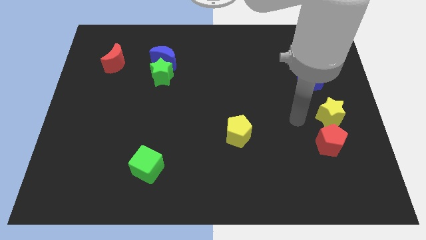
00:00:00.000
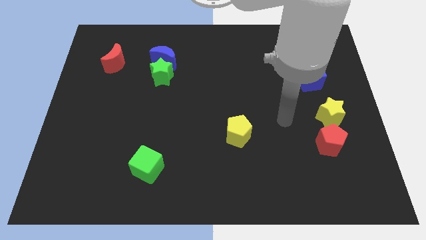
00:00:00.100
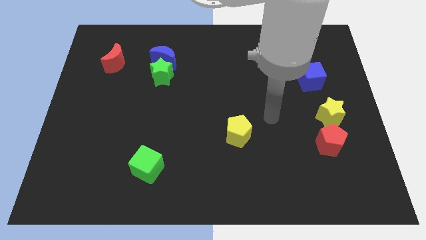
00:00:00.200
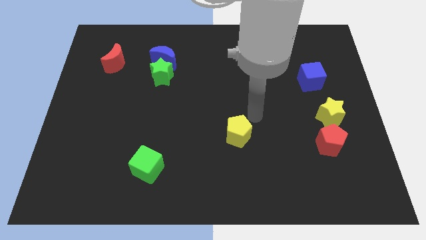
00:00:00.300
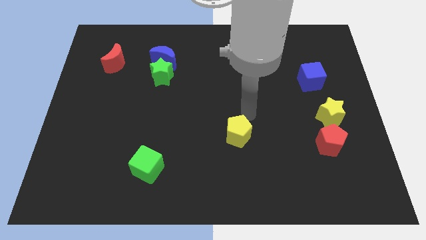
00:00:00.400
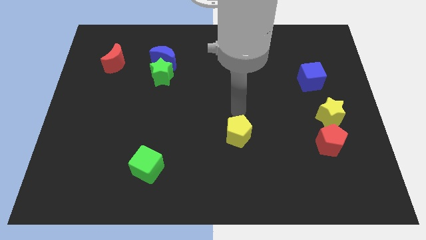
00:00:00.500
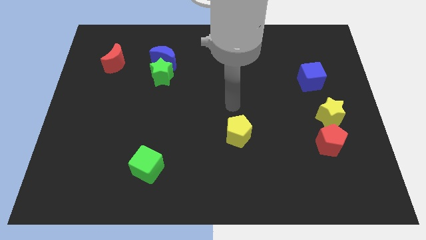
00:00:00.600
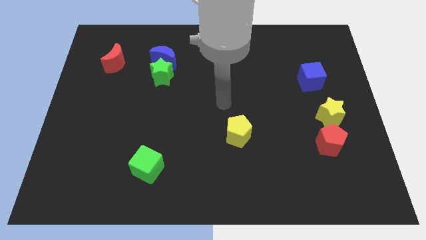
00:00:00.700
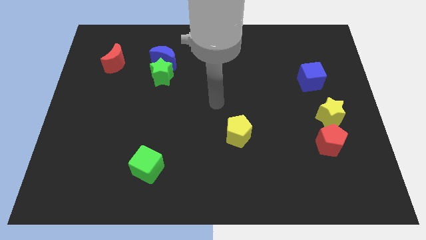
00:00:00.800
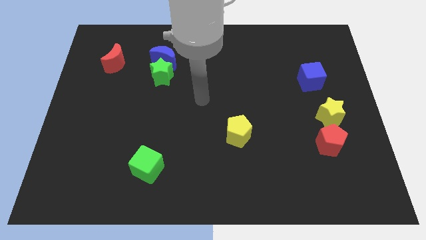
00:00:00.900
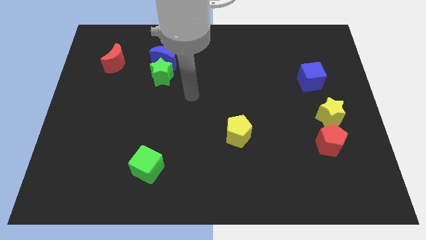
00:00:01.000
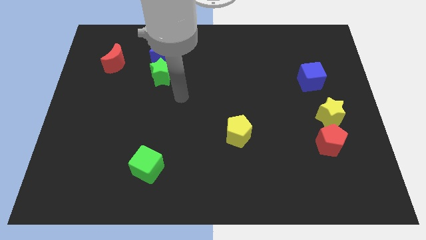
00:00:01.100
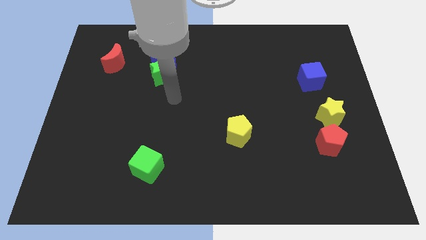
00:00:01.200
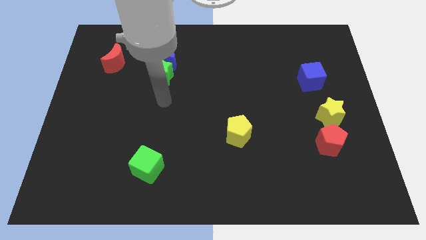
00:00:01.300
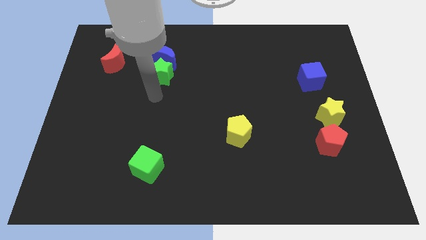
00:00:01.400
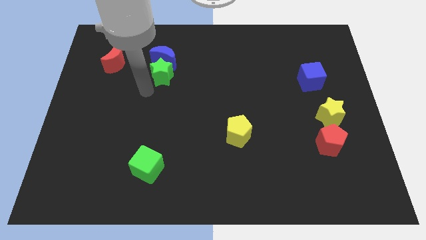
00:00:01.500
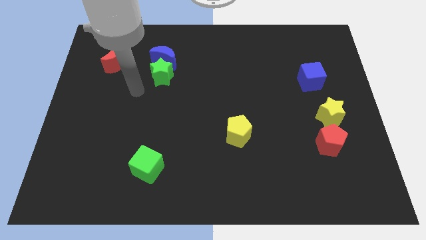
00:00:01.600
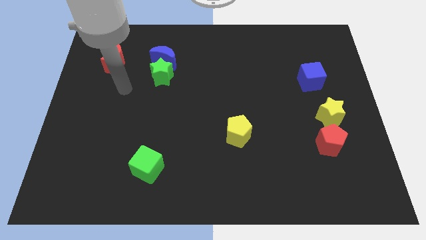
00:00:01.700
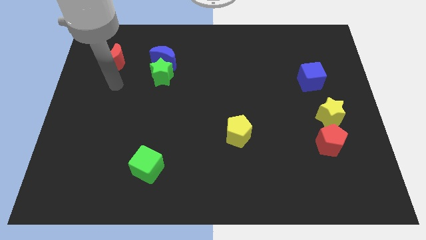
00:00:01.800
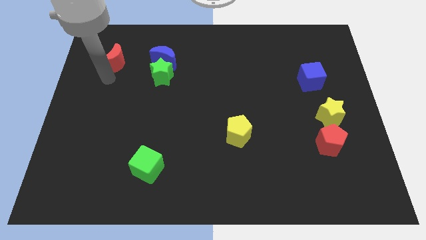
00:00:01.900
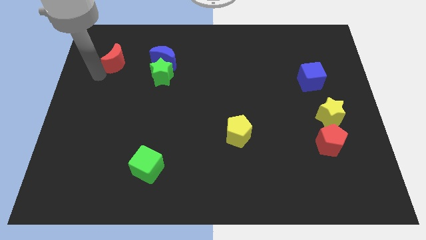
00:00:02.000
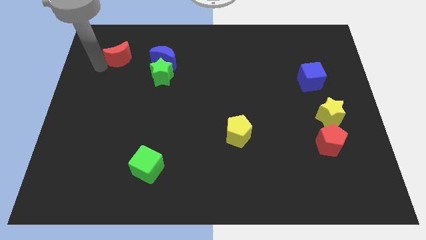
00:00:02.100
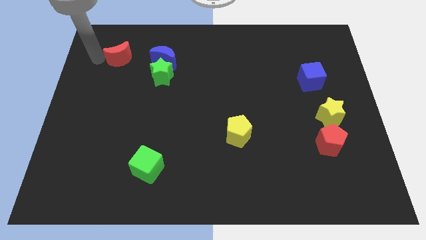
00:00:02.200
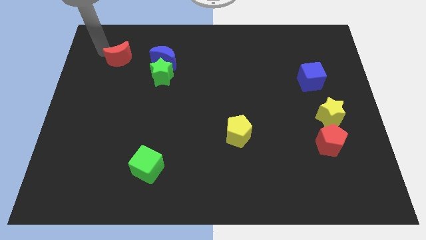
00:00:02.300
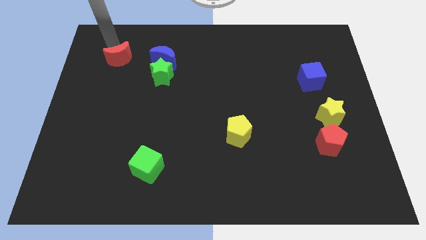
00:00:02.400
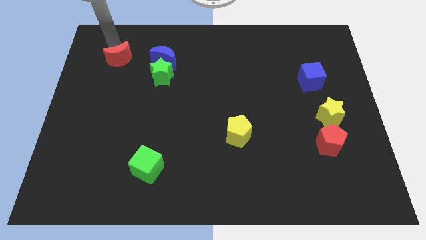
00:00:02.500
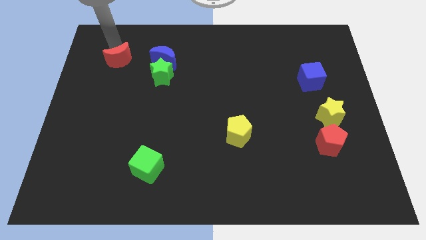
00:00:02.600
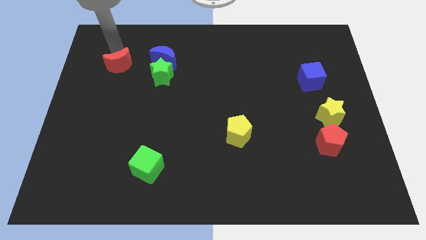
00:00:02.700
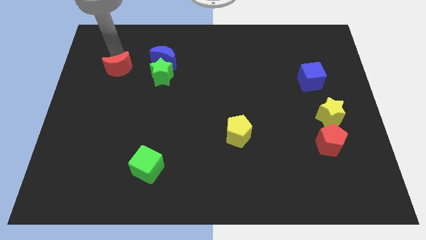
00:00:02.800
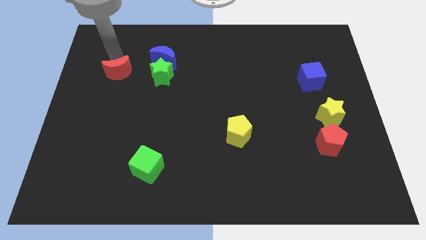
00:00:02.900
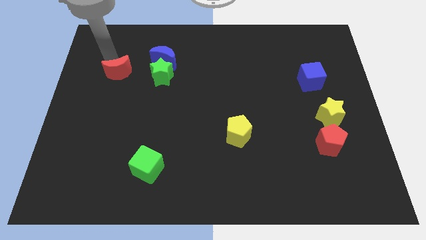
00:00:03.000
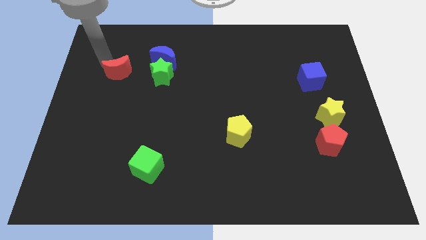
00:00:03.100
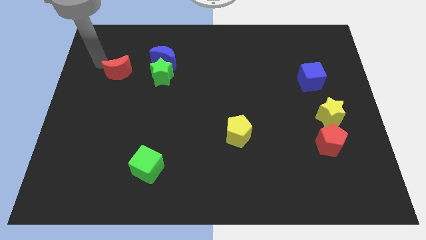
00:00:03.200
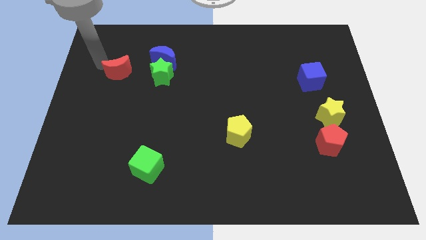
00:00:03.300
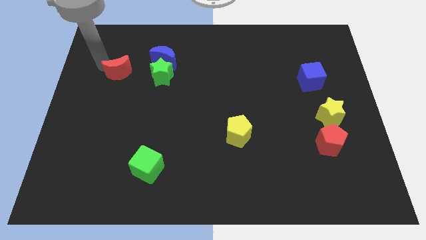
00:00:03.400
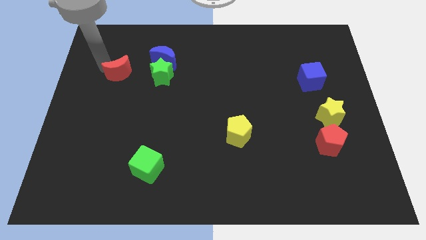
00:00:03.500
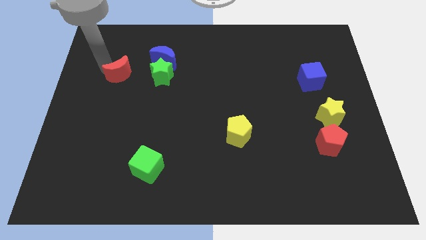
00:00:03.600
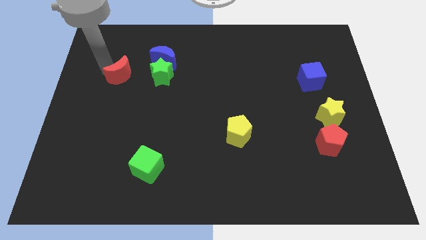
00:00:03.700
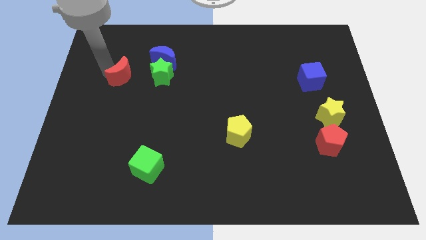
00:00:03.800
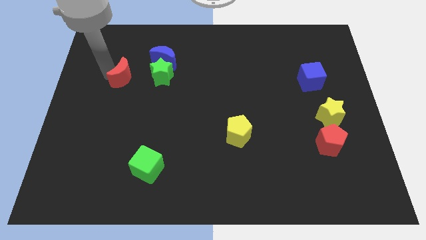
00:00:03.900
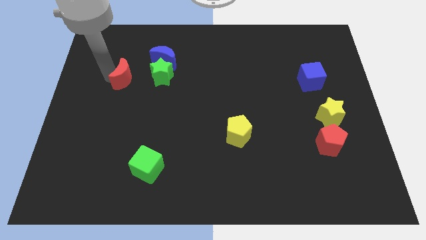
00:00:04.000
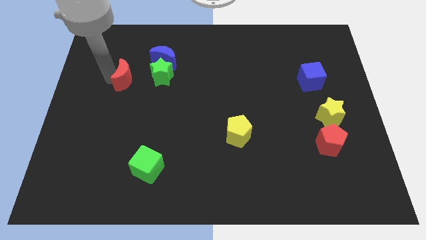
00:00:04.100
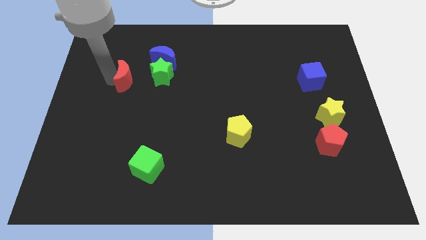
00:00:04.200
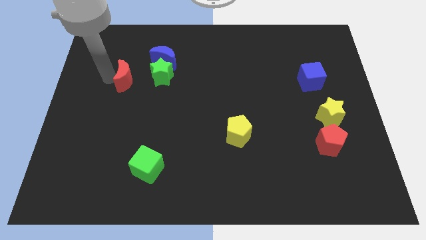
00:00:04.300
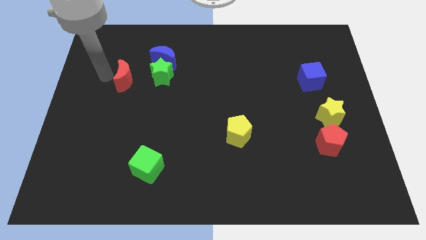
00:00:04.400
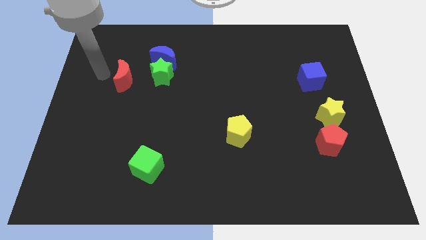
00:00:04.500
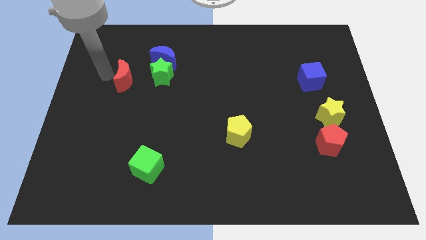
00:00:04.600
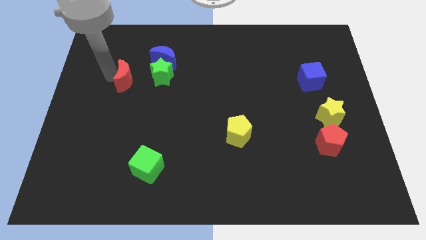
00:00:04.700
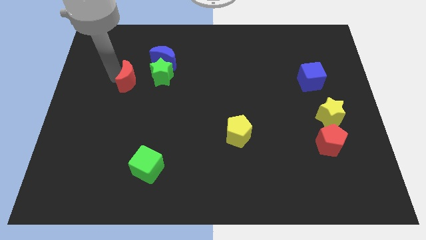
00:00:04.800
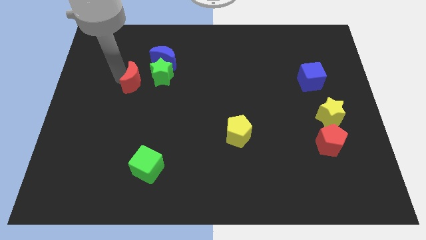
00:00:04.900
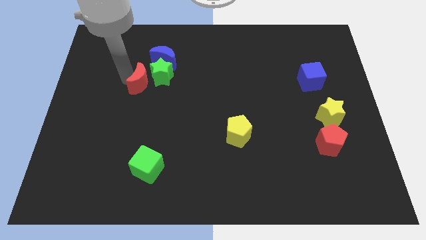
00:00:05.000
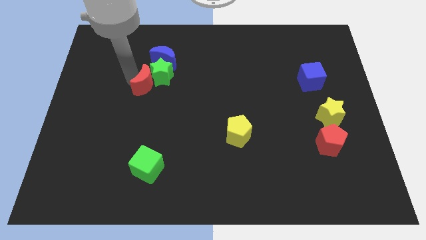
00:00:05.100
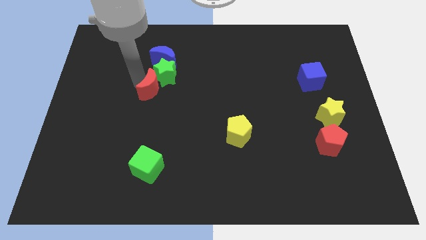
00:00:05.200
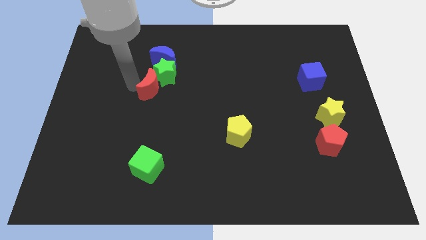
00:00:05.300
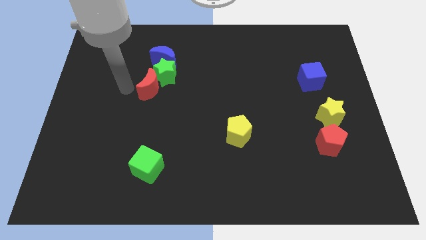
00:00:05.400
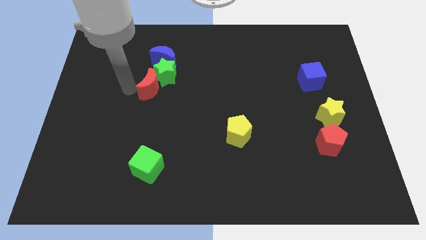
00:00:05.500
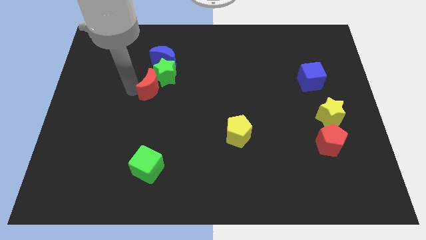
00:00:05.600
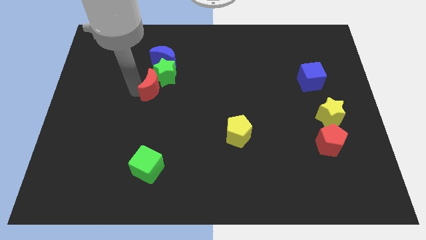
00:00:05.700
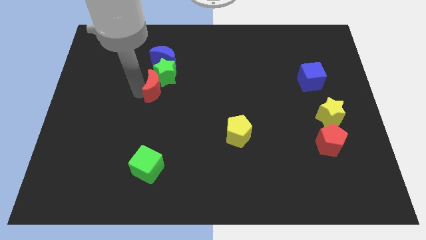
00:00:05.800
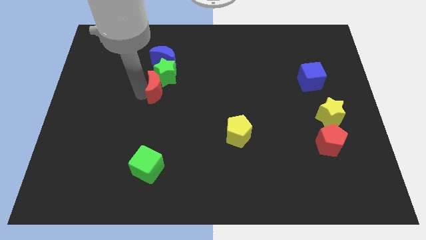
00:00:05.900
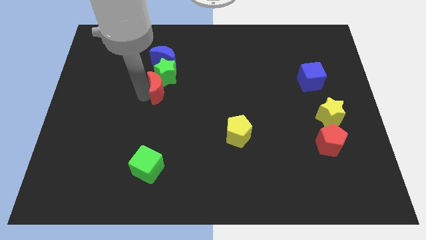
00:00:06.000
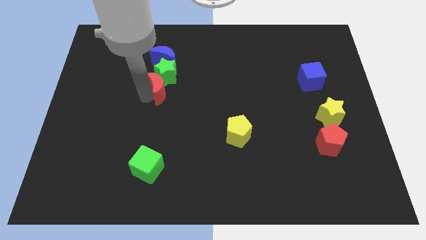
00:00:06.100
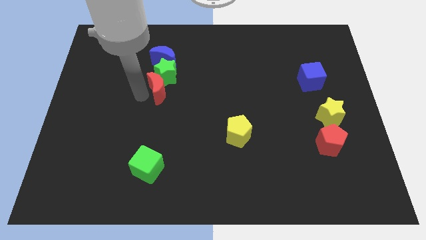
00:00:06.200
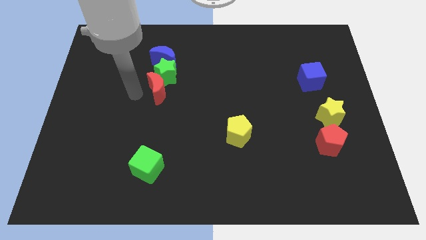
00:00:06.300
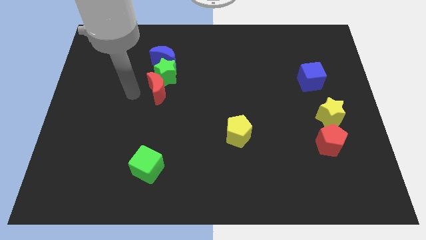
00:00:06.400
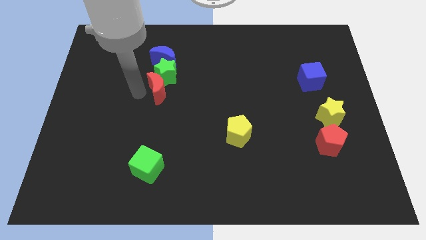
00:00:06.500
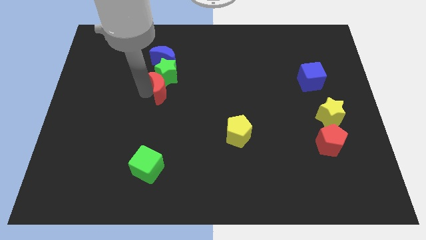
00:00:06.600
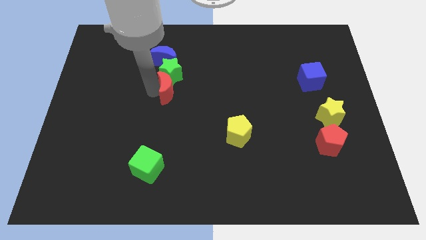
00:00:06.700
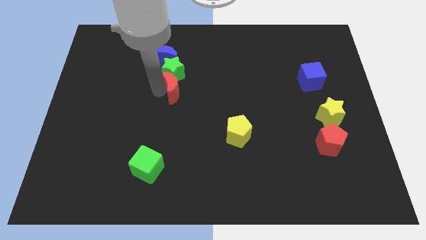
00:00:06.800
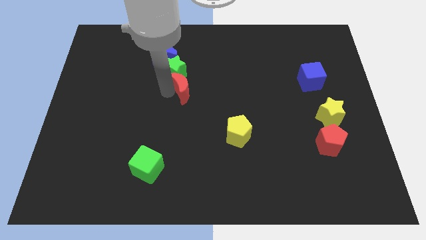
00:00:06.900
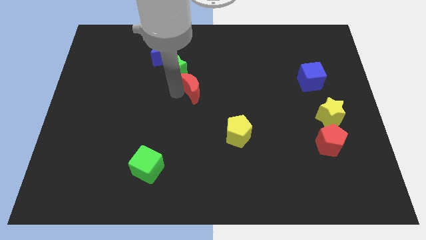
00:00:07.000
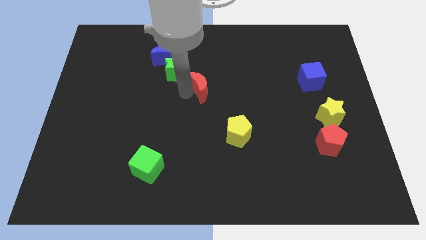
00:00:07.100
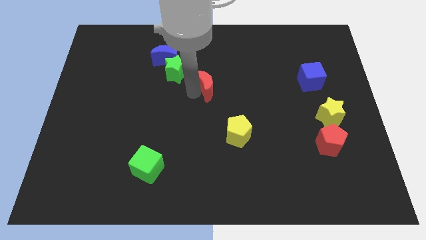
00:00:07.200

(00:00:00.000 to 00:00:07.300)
push the red moon to the right side of the green star

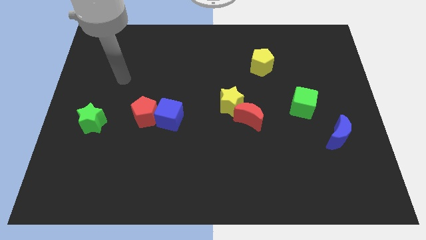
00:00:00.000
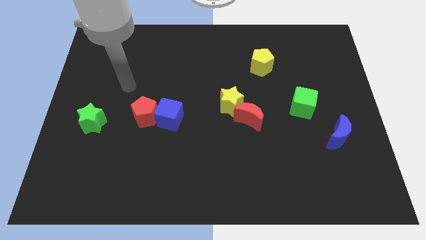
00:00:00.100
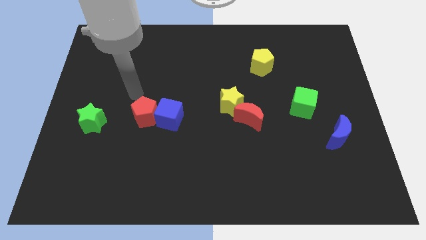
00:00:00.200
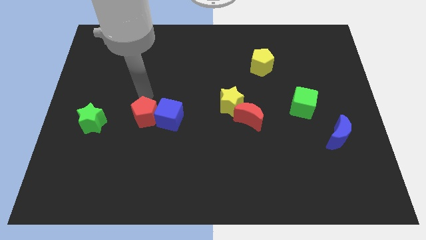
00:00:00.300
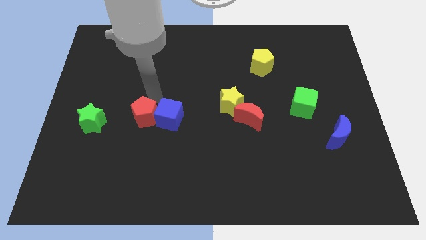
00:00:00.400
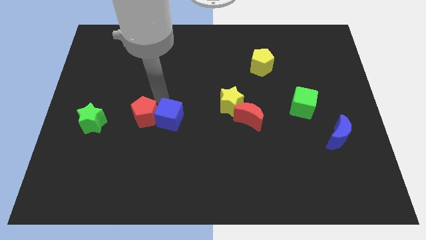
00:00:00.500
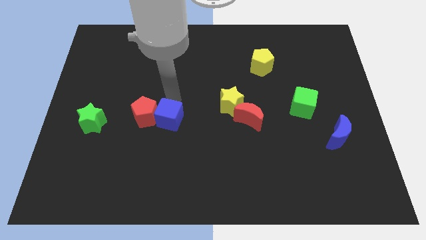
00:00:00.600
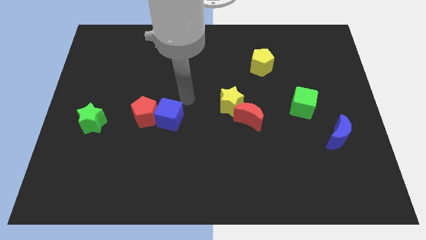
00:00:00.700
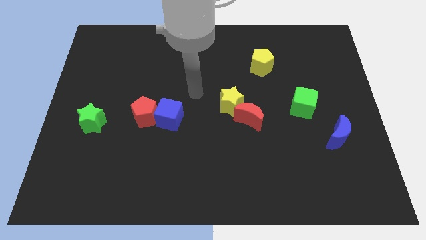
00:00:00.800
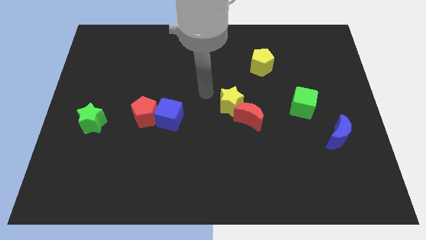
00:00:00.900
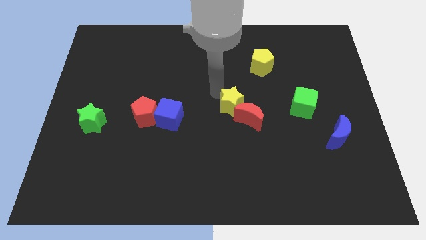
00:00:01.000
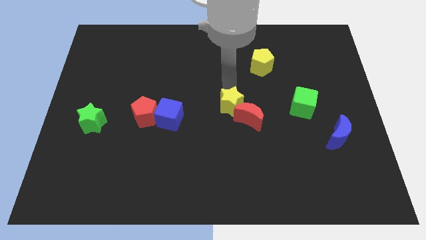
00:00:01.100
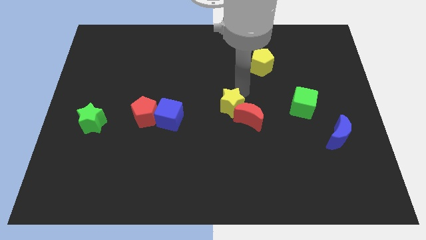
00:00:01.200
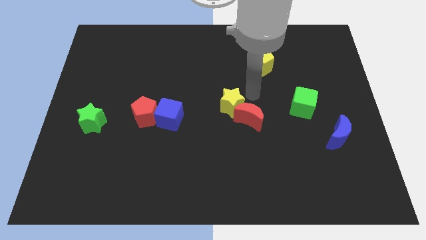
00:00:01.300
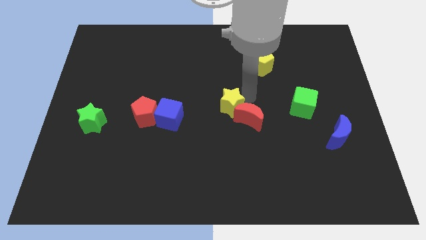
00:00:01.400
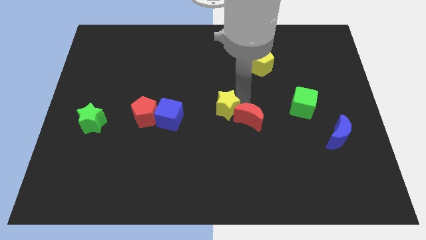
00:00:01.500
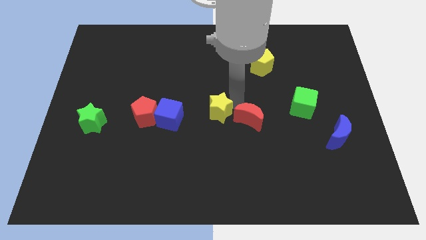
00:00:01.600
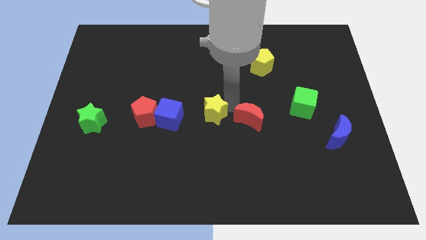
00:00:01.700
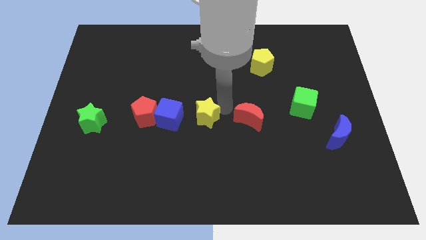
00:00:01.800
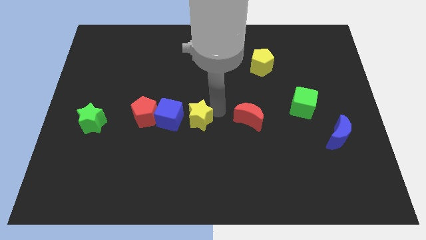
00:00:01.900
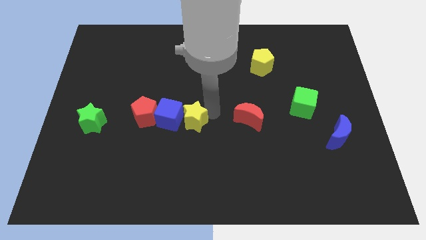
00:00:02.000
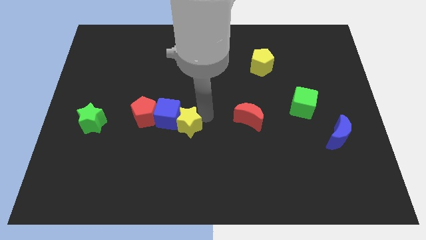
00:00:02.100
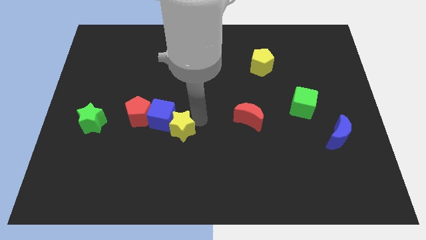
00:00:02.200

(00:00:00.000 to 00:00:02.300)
move the yellow star to the bottom right of the red pentagon
